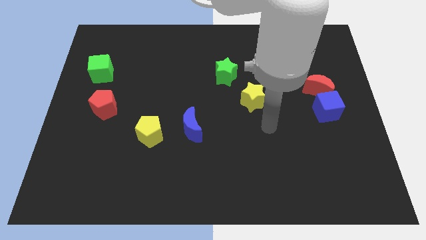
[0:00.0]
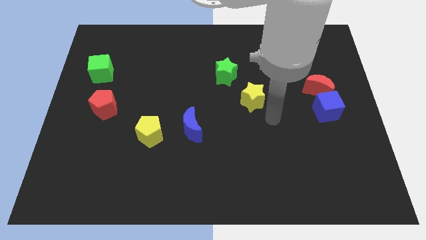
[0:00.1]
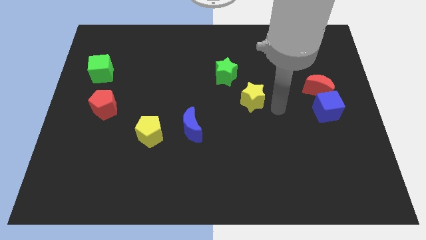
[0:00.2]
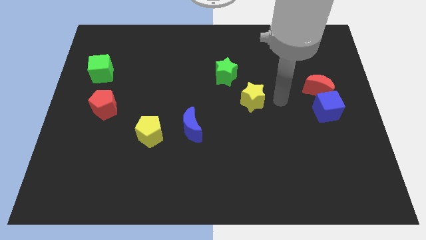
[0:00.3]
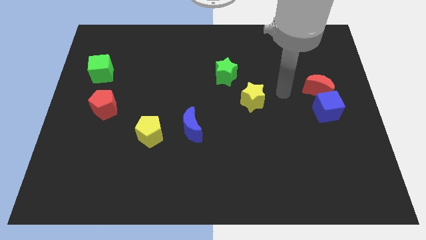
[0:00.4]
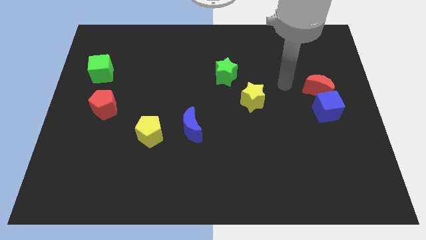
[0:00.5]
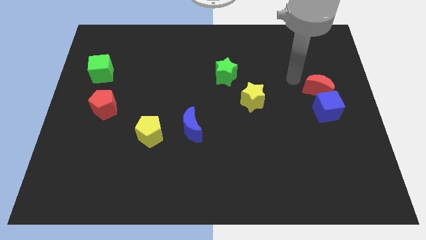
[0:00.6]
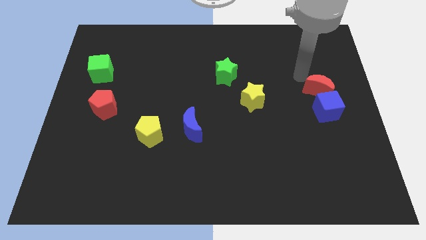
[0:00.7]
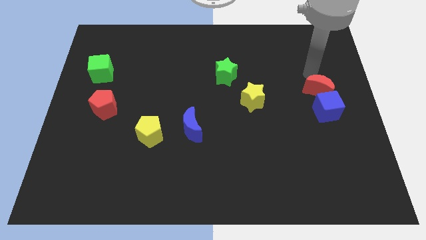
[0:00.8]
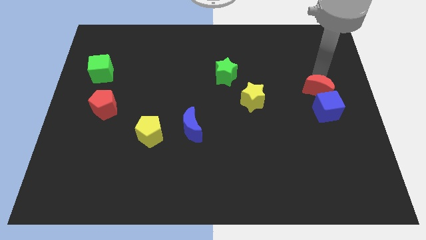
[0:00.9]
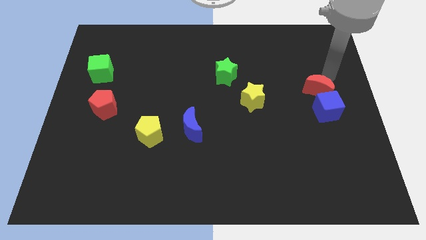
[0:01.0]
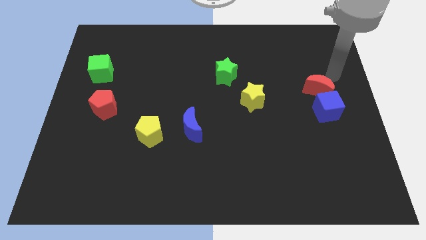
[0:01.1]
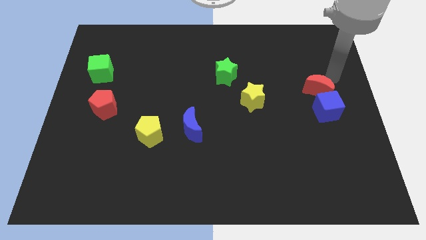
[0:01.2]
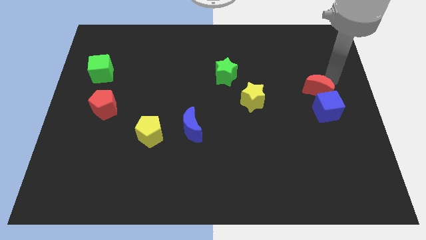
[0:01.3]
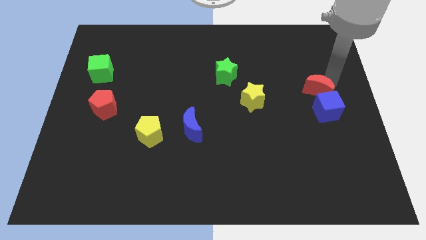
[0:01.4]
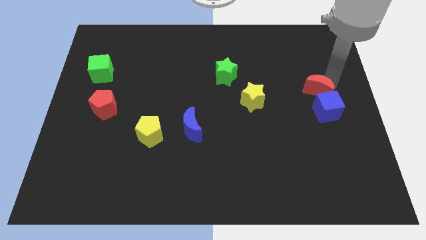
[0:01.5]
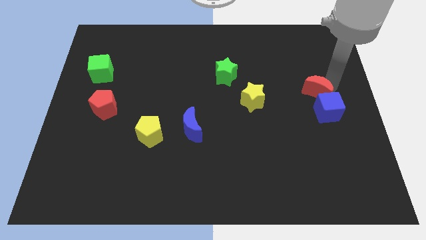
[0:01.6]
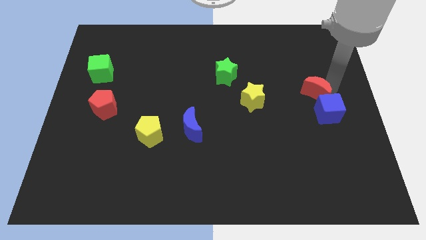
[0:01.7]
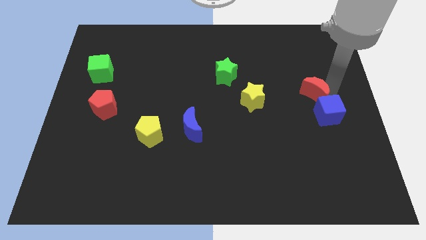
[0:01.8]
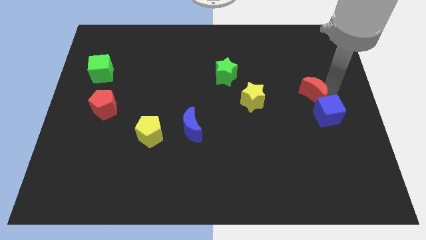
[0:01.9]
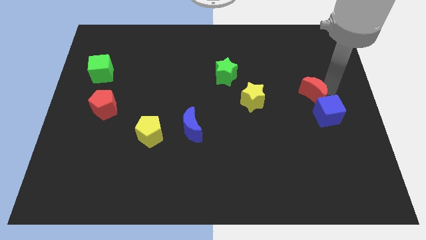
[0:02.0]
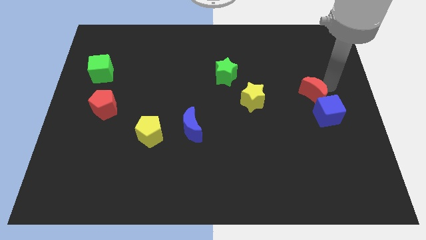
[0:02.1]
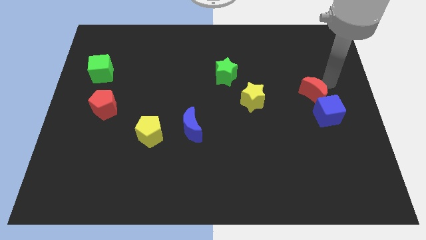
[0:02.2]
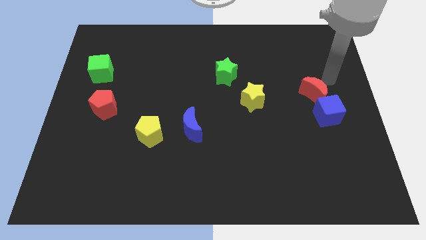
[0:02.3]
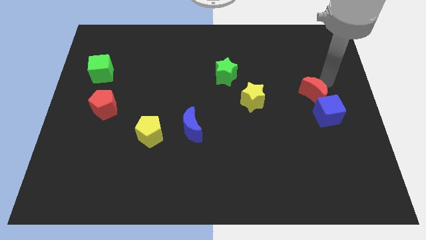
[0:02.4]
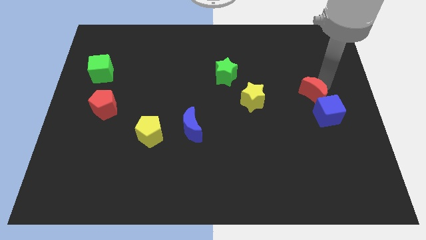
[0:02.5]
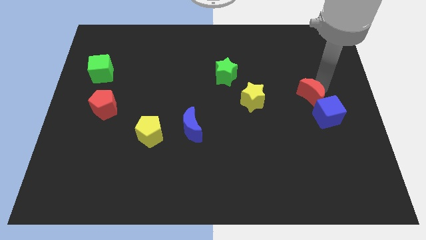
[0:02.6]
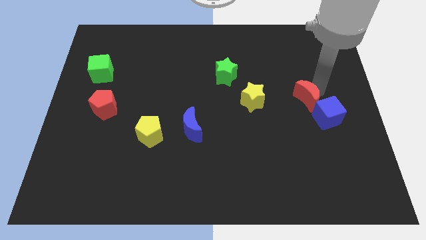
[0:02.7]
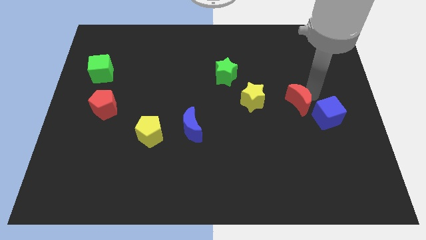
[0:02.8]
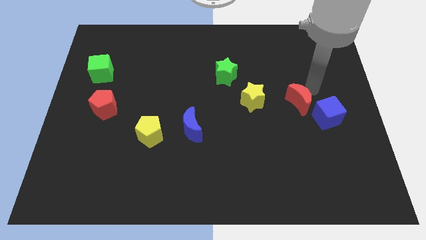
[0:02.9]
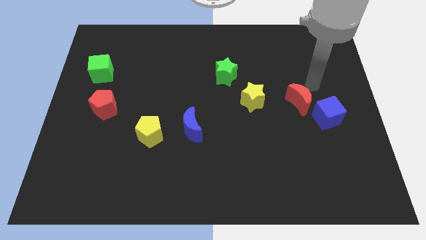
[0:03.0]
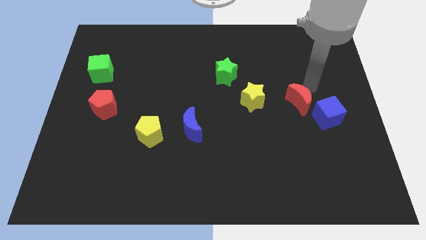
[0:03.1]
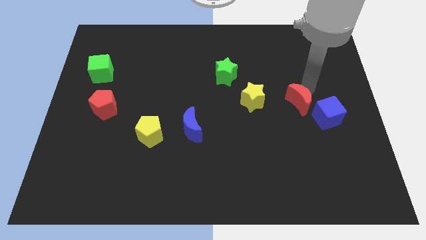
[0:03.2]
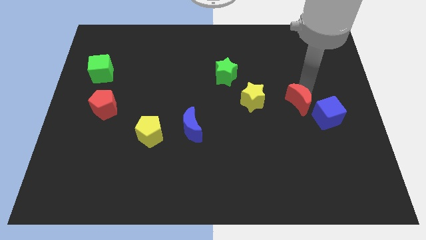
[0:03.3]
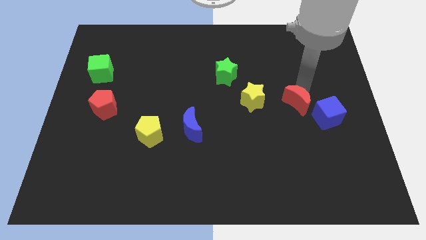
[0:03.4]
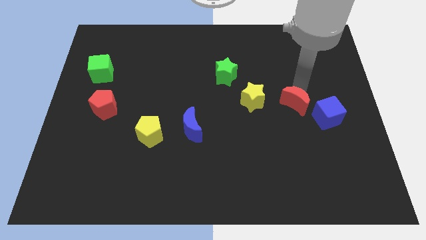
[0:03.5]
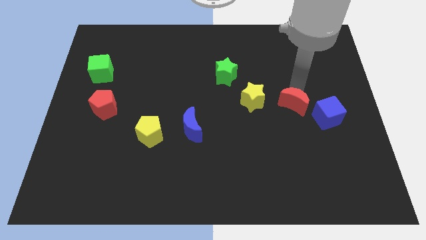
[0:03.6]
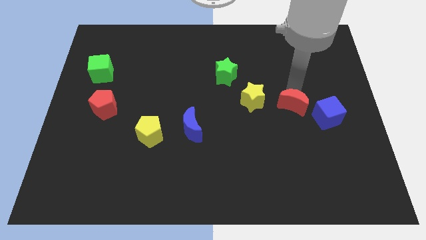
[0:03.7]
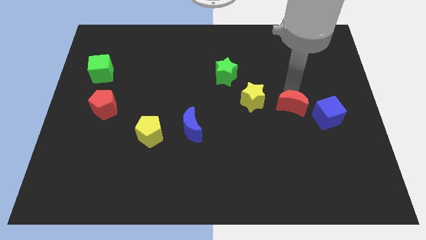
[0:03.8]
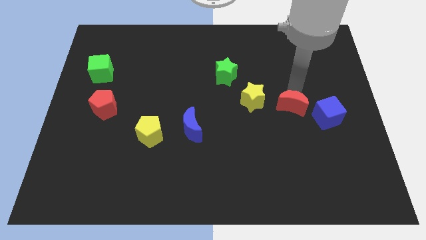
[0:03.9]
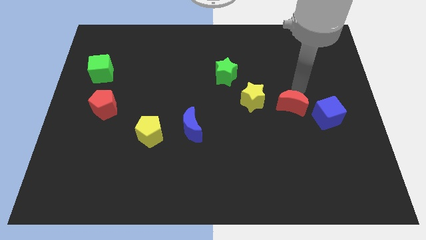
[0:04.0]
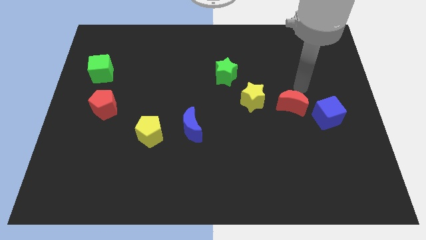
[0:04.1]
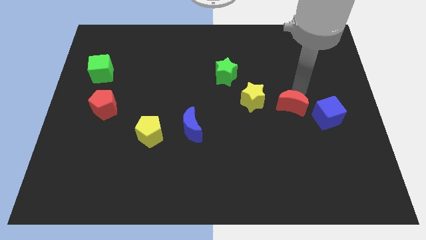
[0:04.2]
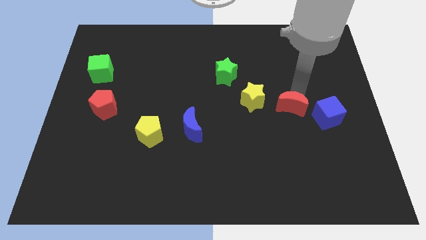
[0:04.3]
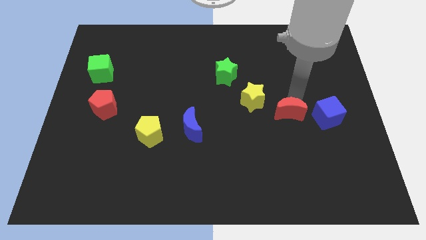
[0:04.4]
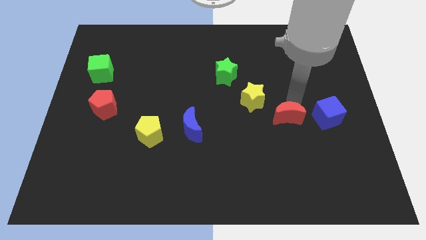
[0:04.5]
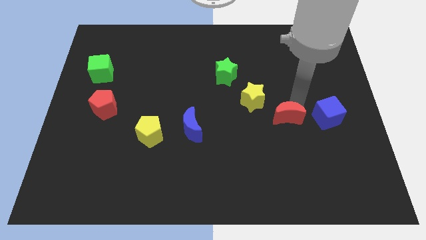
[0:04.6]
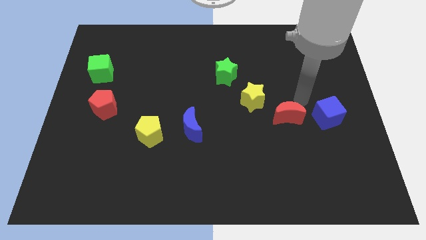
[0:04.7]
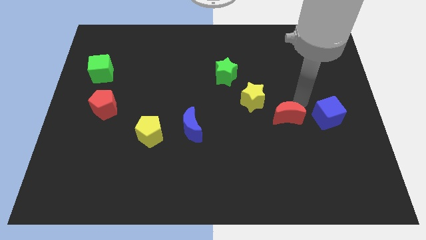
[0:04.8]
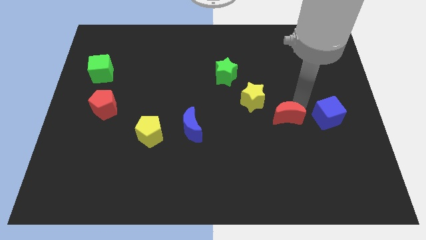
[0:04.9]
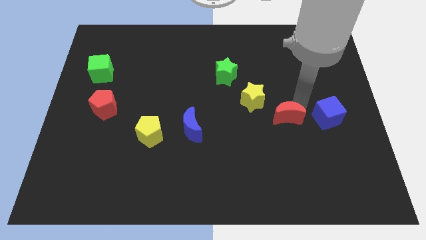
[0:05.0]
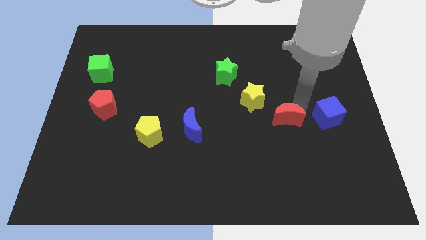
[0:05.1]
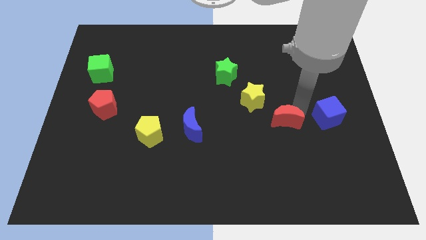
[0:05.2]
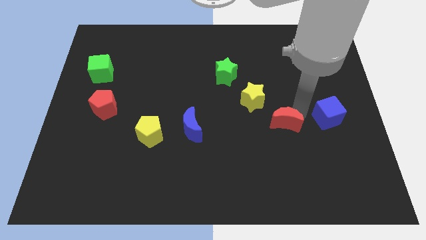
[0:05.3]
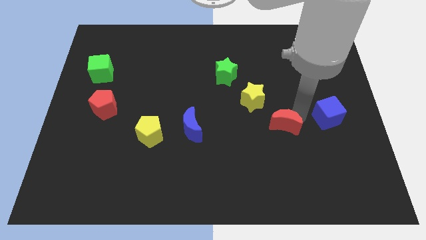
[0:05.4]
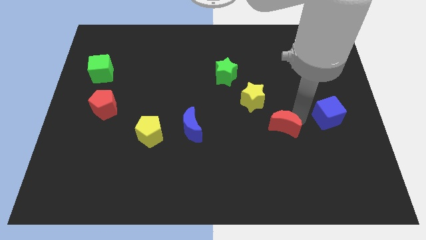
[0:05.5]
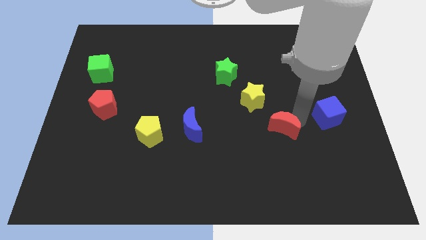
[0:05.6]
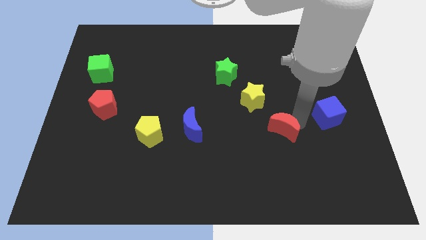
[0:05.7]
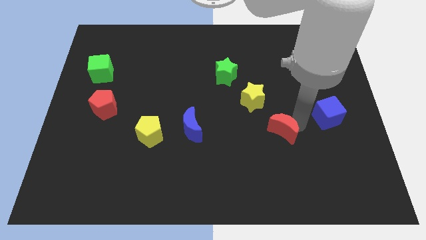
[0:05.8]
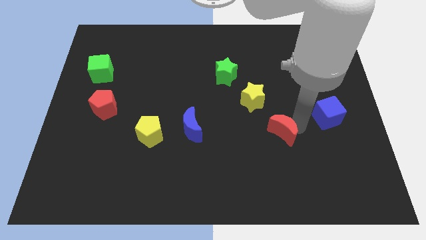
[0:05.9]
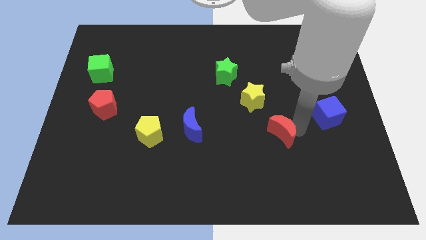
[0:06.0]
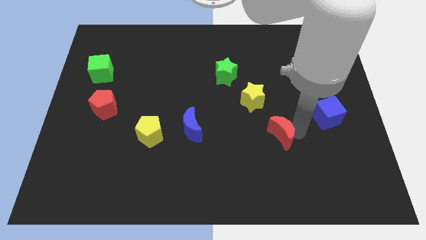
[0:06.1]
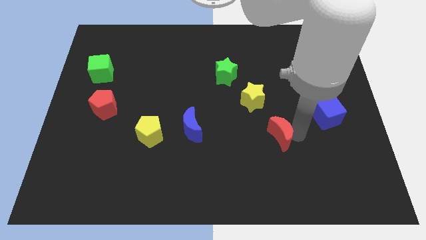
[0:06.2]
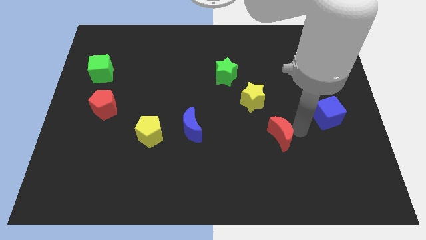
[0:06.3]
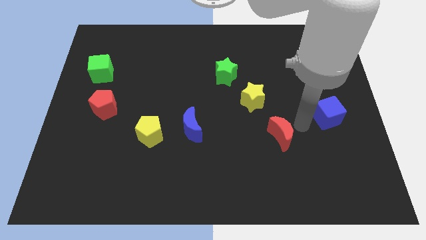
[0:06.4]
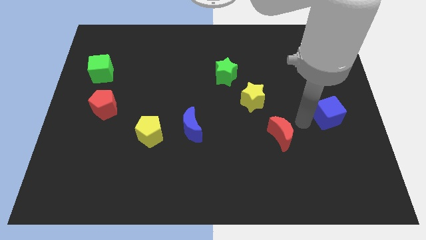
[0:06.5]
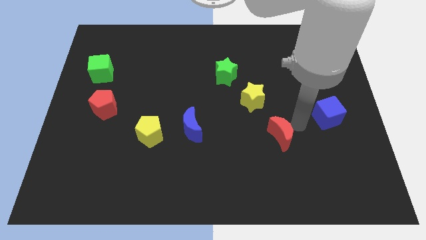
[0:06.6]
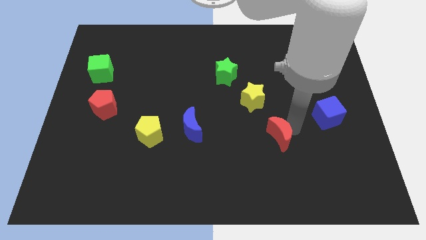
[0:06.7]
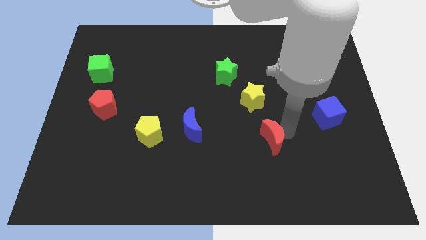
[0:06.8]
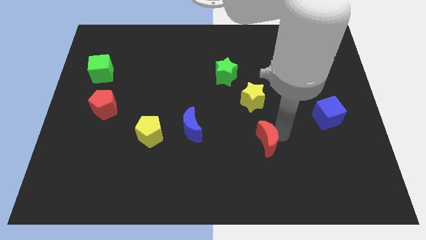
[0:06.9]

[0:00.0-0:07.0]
move the red moon downwards and then left

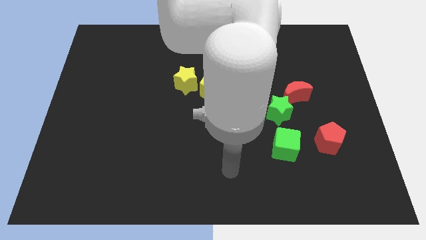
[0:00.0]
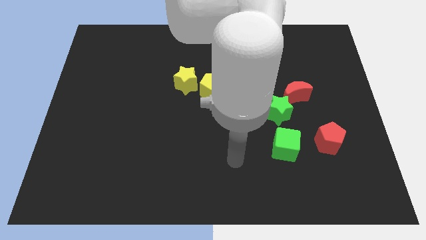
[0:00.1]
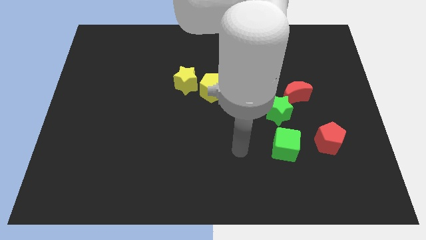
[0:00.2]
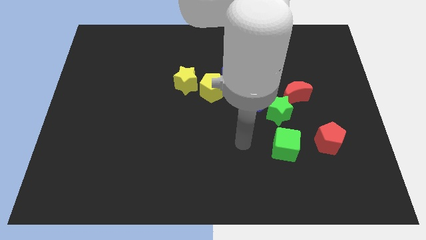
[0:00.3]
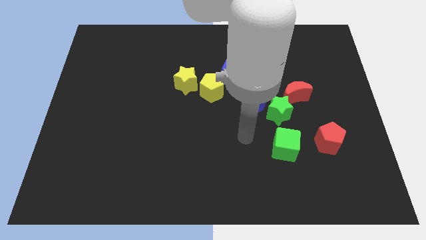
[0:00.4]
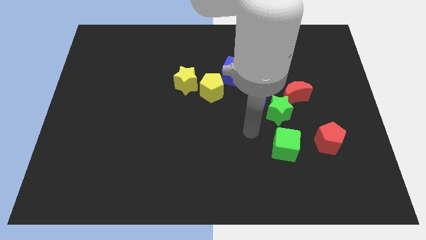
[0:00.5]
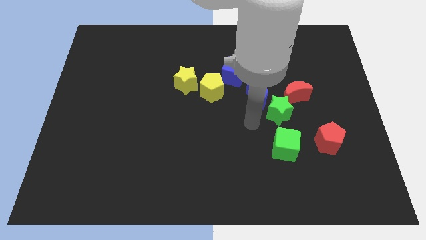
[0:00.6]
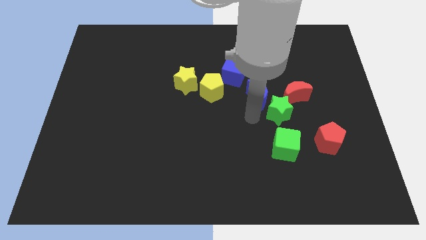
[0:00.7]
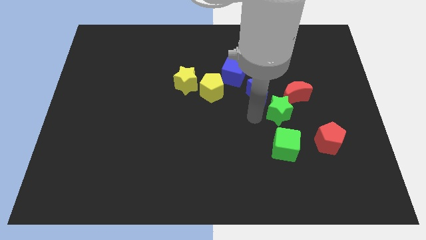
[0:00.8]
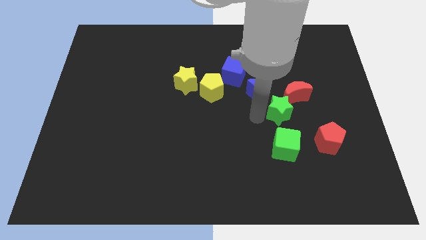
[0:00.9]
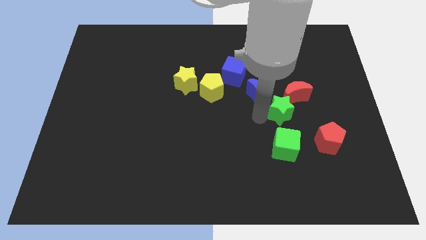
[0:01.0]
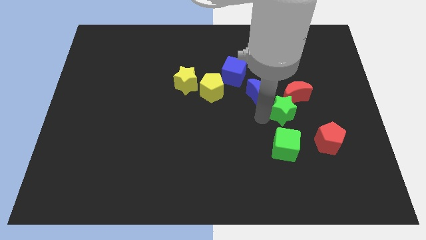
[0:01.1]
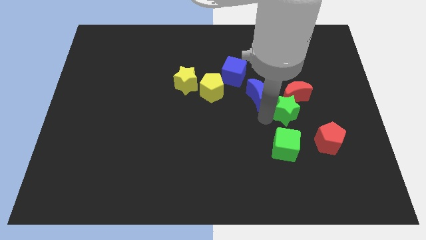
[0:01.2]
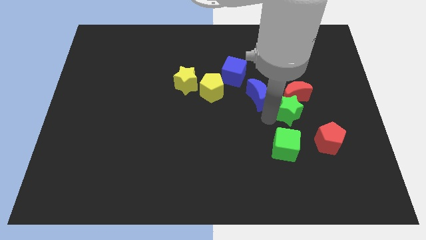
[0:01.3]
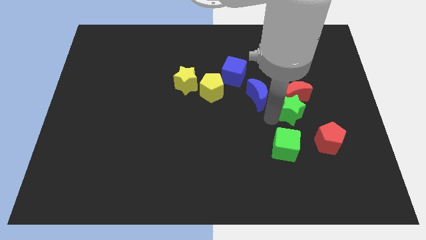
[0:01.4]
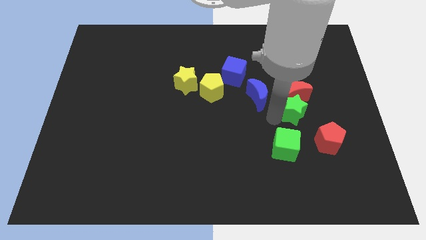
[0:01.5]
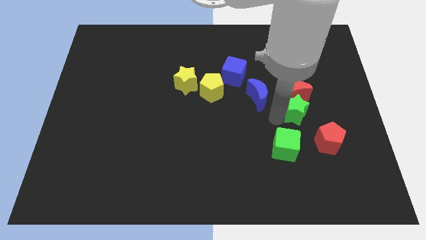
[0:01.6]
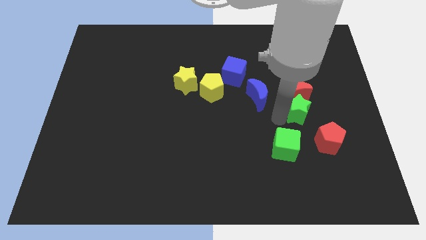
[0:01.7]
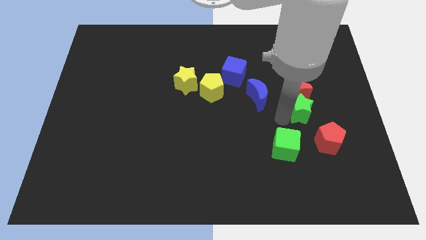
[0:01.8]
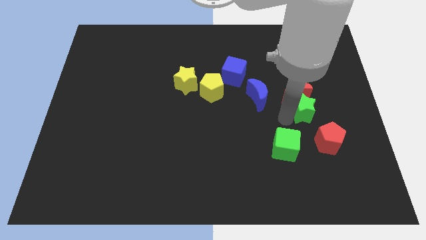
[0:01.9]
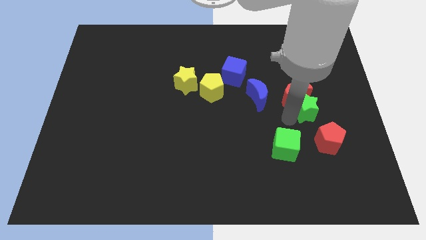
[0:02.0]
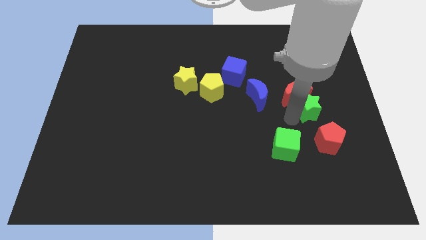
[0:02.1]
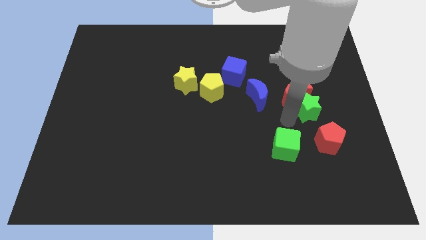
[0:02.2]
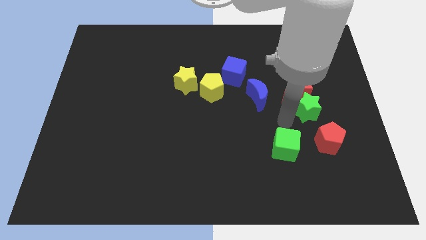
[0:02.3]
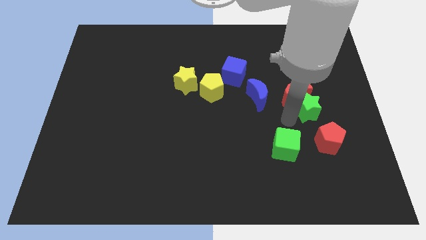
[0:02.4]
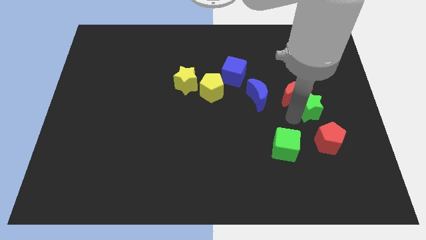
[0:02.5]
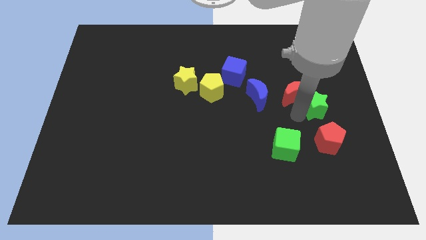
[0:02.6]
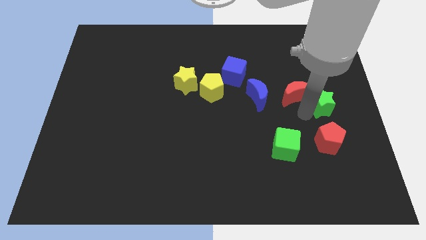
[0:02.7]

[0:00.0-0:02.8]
slightly move the green star diagonally up and right
